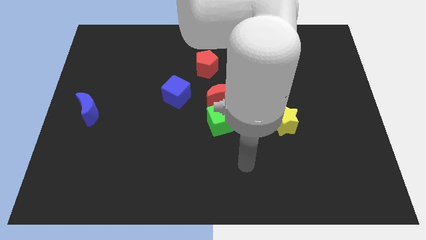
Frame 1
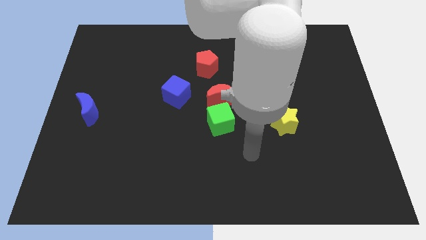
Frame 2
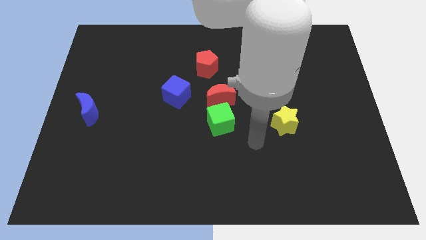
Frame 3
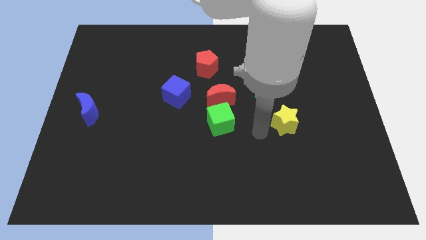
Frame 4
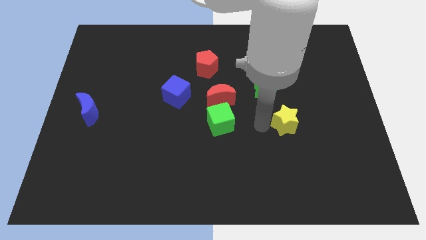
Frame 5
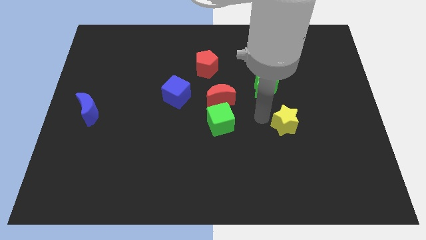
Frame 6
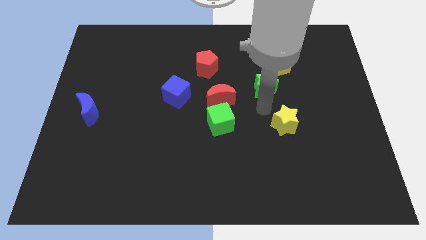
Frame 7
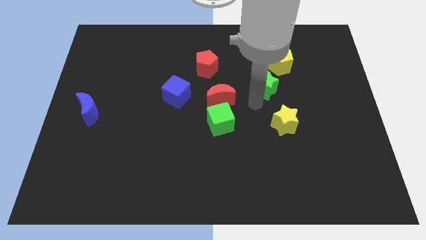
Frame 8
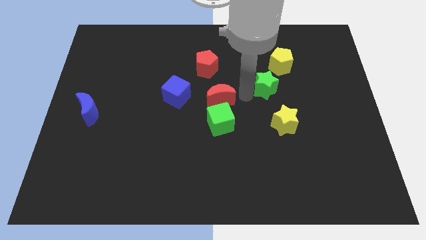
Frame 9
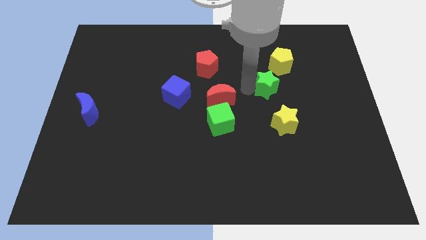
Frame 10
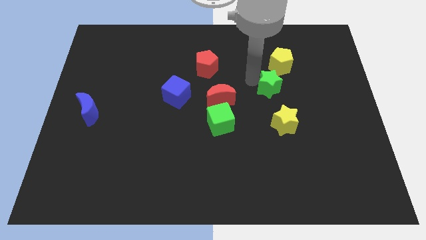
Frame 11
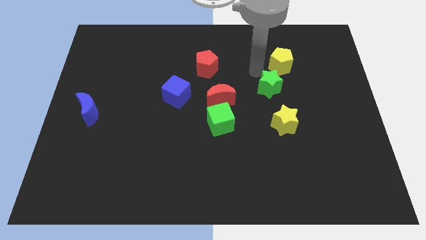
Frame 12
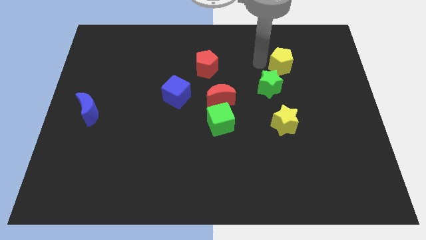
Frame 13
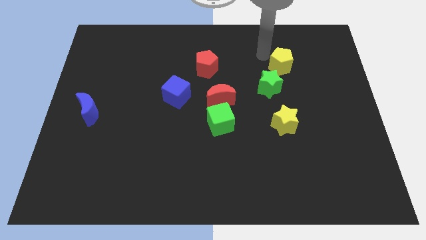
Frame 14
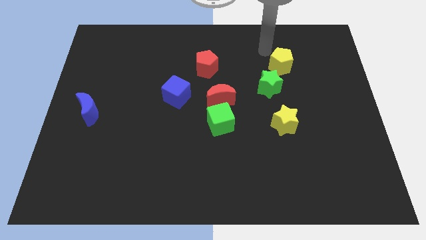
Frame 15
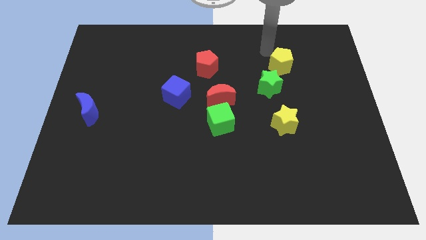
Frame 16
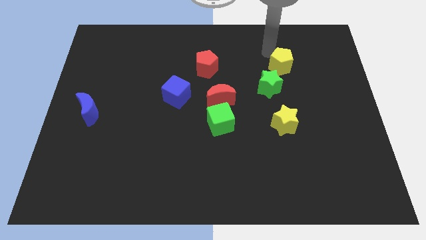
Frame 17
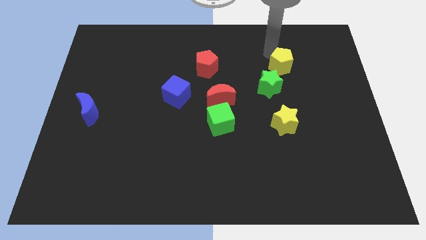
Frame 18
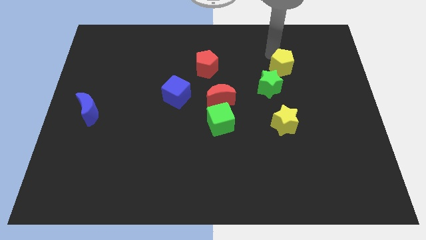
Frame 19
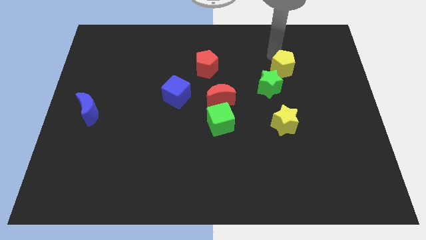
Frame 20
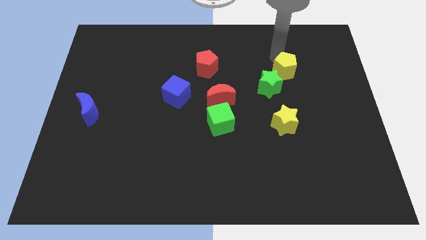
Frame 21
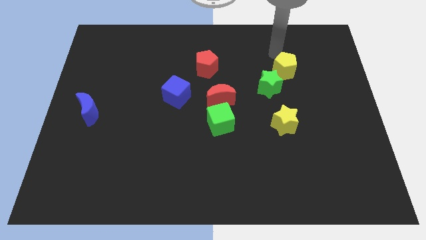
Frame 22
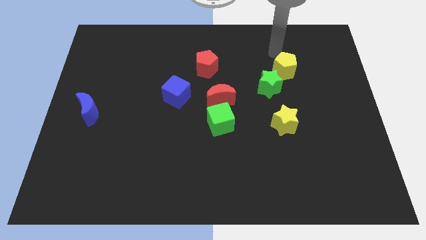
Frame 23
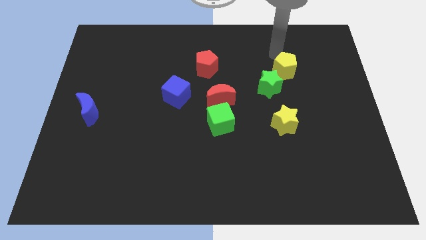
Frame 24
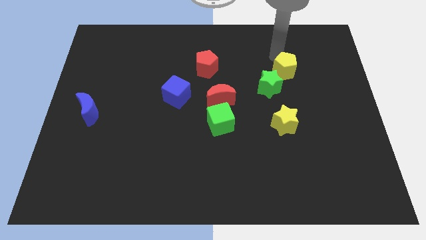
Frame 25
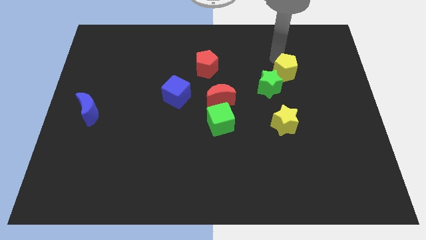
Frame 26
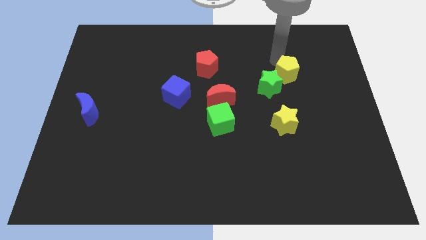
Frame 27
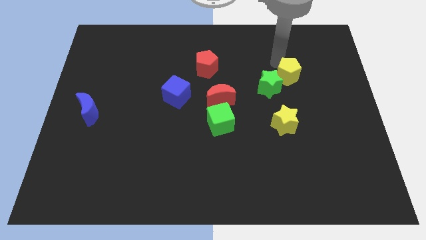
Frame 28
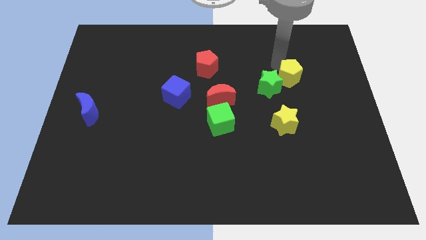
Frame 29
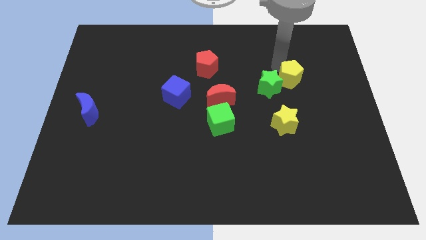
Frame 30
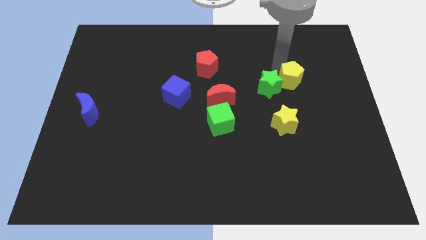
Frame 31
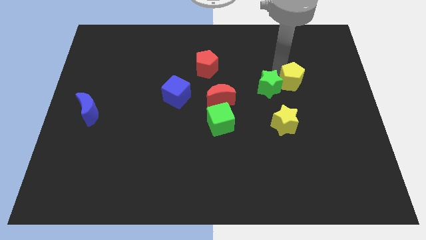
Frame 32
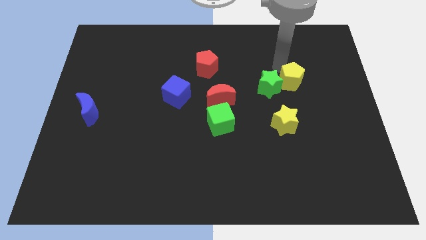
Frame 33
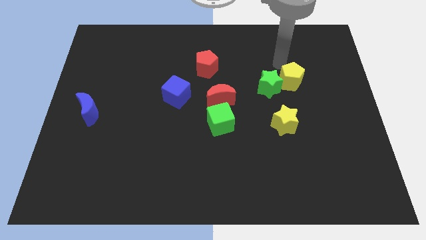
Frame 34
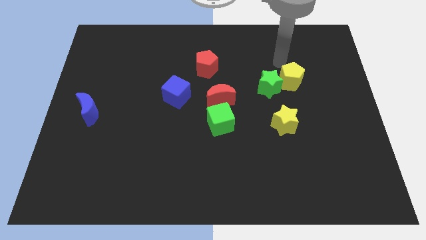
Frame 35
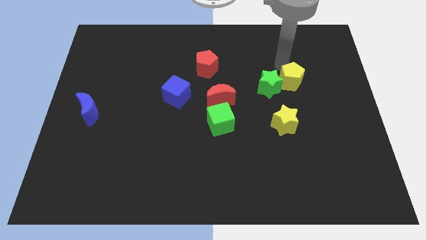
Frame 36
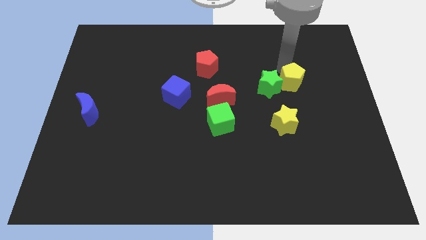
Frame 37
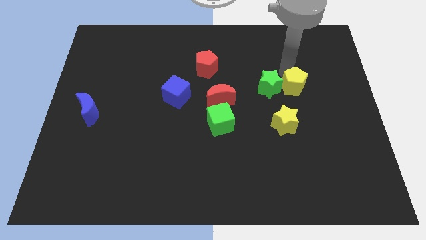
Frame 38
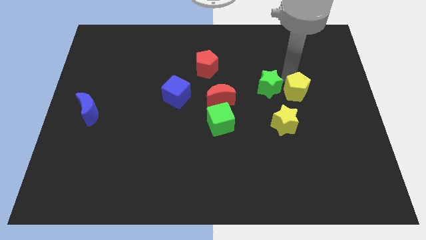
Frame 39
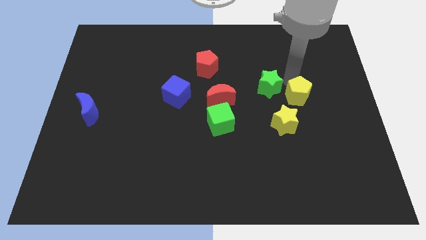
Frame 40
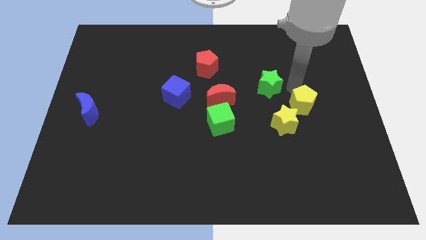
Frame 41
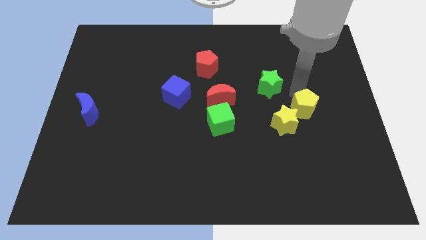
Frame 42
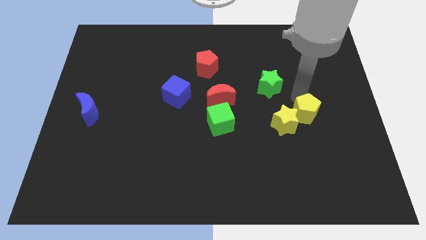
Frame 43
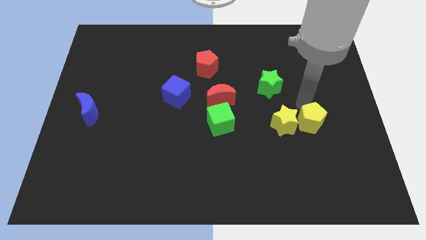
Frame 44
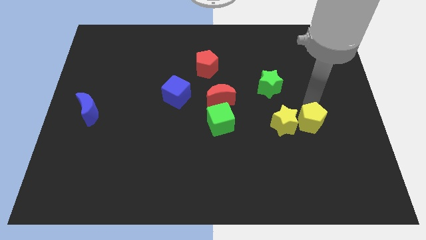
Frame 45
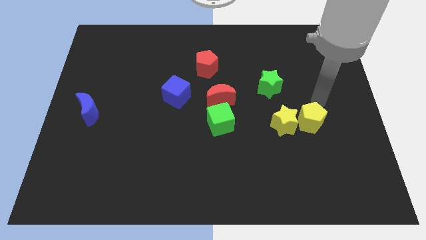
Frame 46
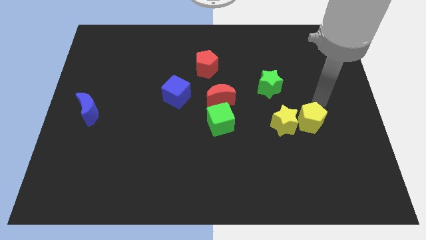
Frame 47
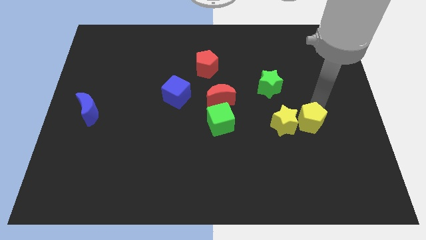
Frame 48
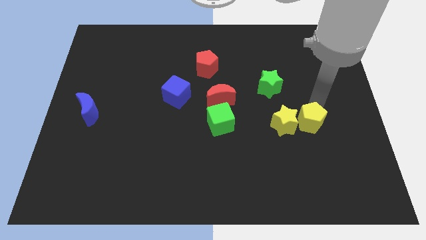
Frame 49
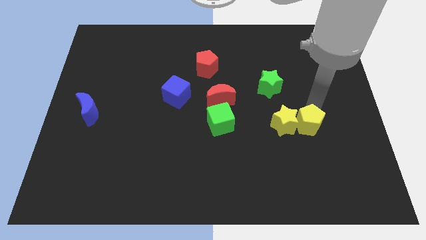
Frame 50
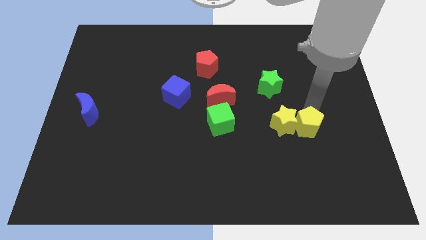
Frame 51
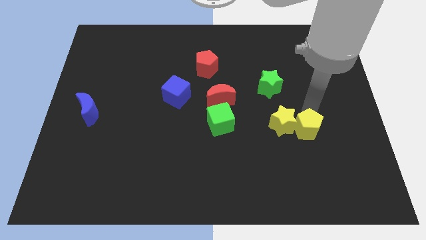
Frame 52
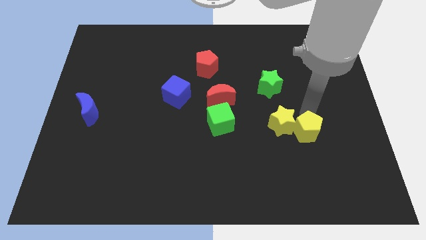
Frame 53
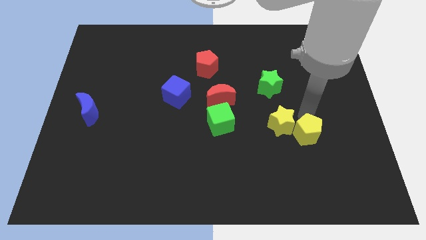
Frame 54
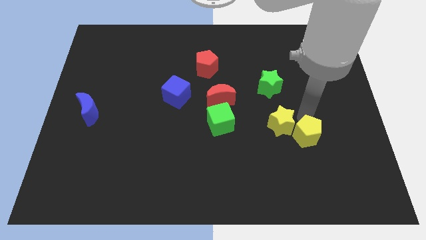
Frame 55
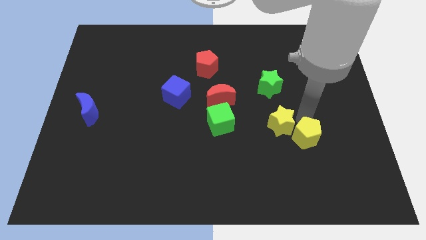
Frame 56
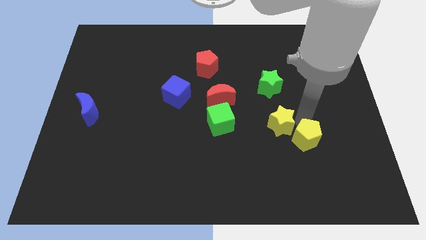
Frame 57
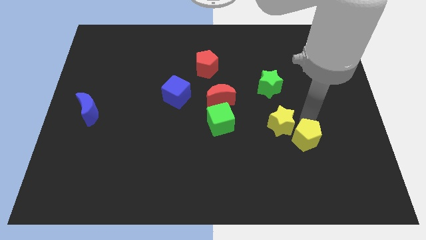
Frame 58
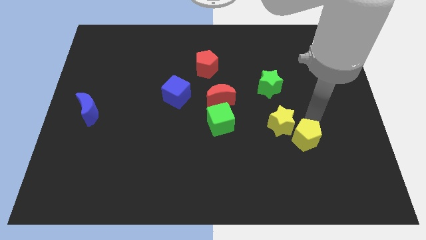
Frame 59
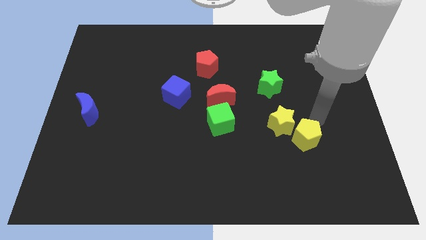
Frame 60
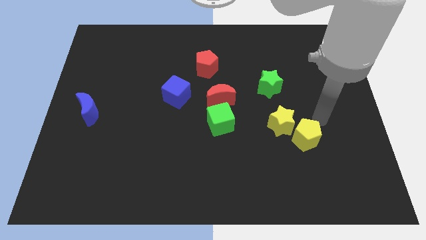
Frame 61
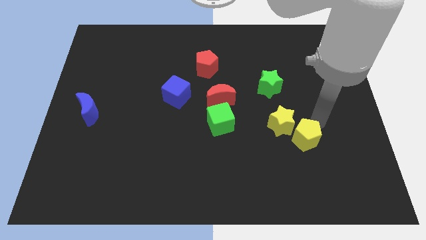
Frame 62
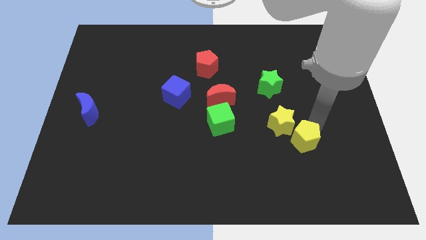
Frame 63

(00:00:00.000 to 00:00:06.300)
move the yellow pentagon below the yellow star

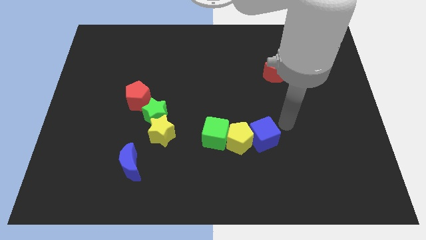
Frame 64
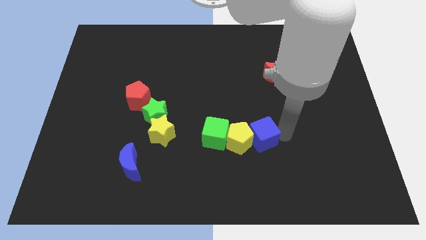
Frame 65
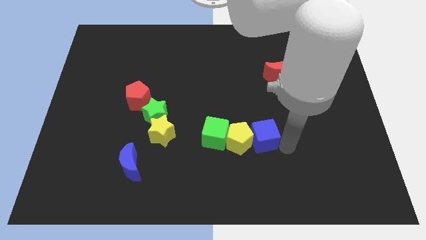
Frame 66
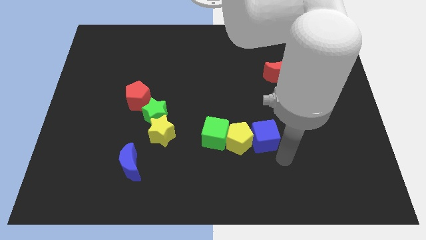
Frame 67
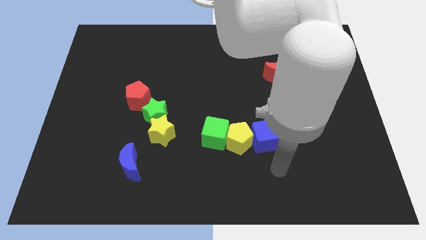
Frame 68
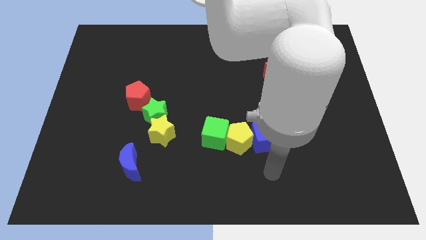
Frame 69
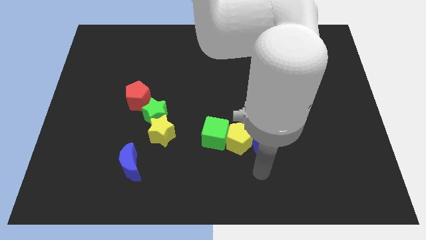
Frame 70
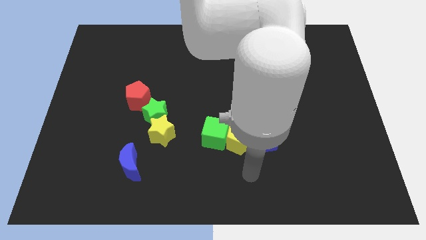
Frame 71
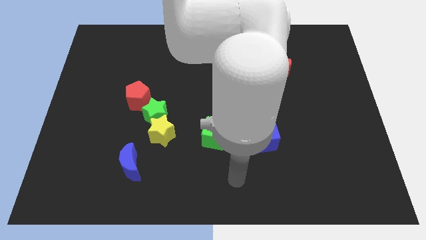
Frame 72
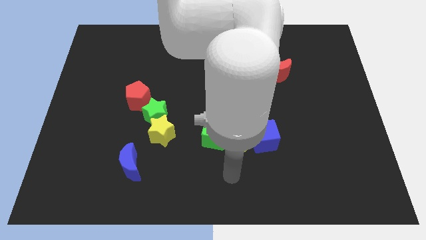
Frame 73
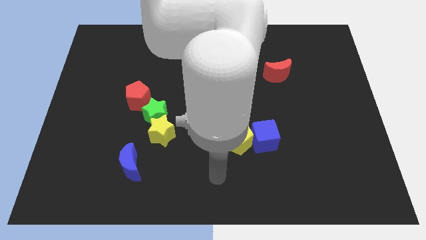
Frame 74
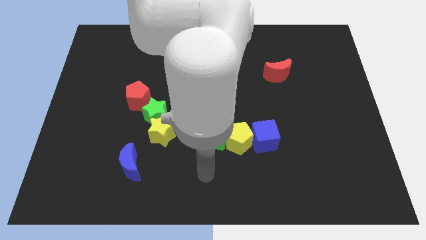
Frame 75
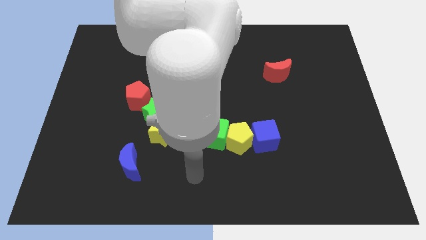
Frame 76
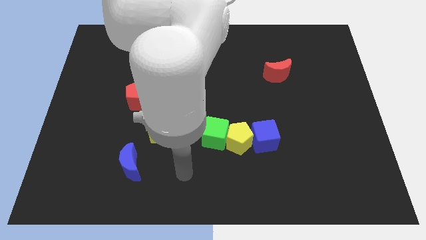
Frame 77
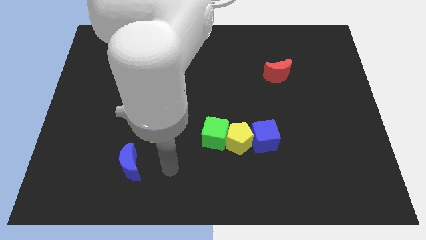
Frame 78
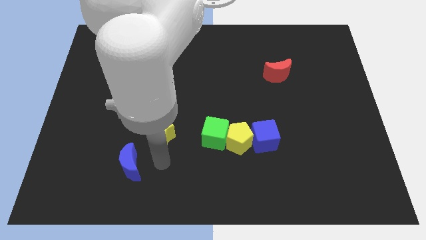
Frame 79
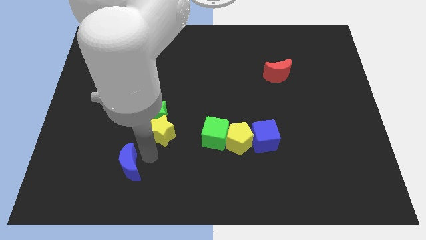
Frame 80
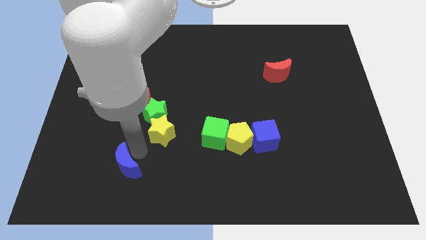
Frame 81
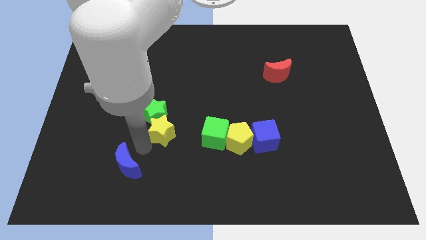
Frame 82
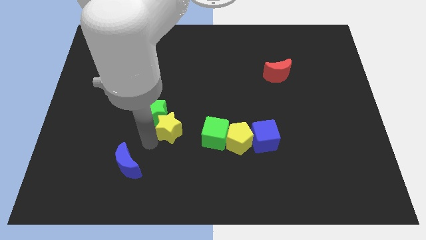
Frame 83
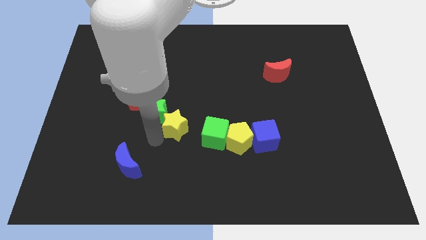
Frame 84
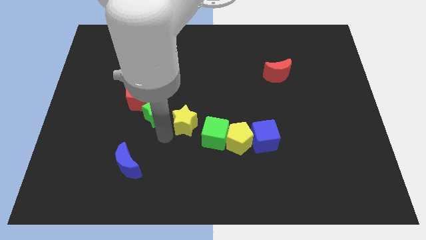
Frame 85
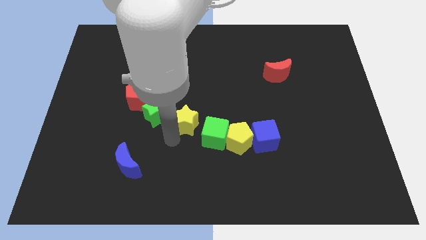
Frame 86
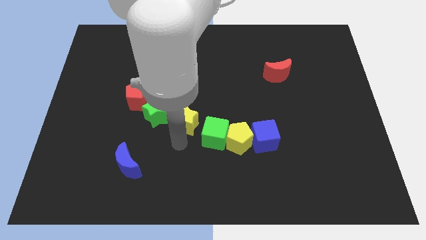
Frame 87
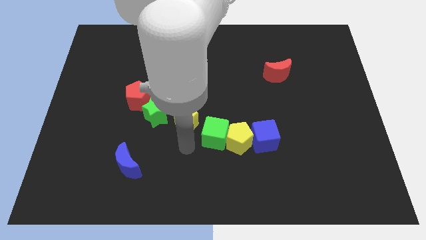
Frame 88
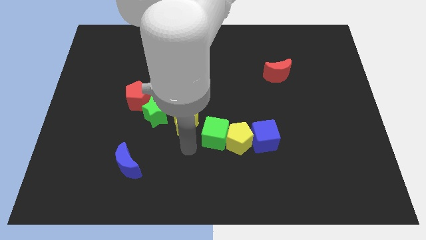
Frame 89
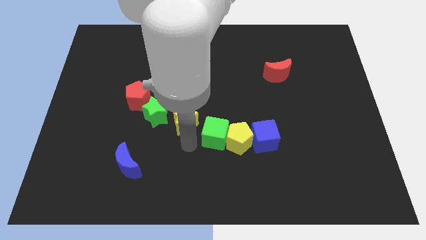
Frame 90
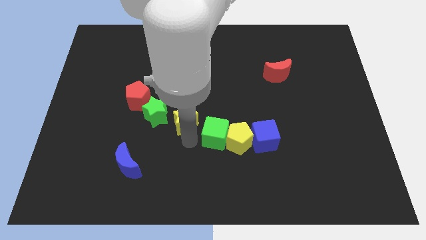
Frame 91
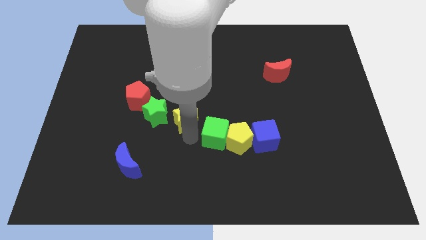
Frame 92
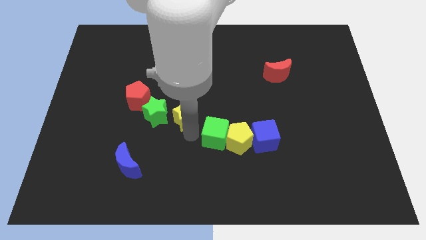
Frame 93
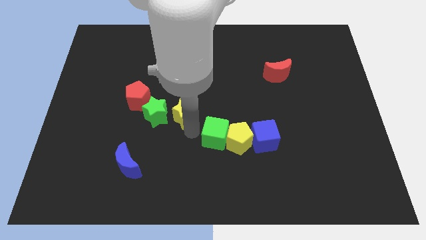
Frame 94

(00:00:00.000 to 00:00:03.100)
push the yellow star to the top right side of the green star
